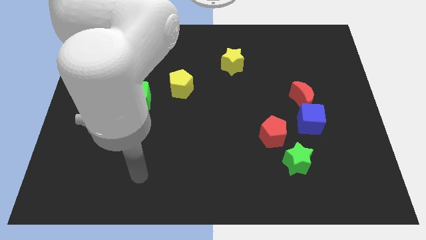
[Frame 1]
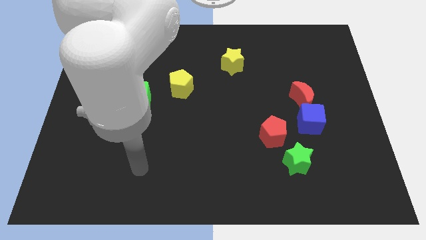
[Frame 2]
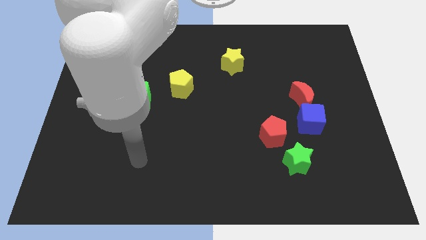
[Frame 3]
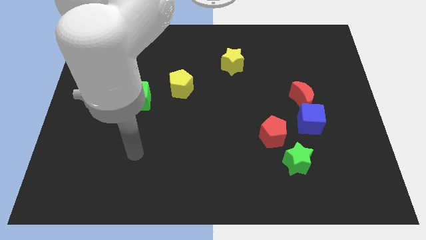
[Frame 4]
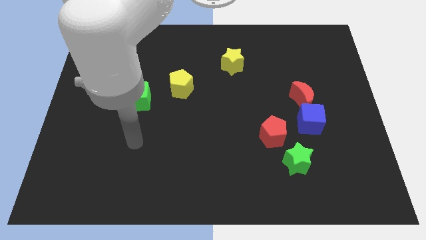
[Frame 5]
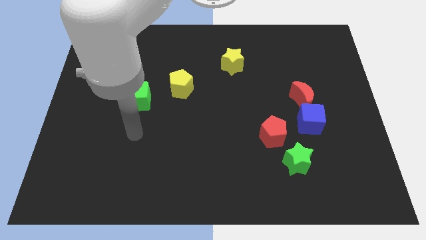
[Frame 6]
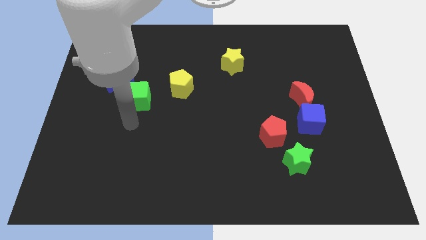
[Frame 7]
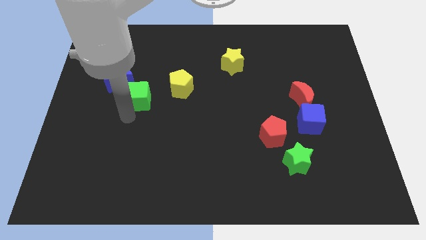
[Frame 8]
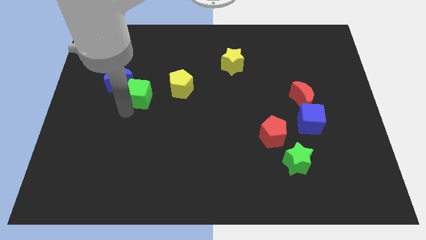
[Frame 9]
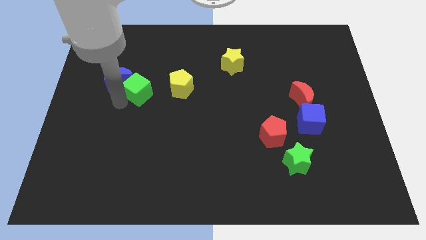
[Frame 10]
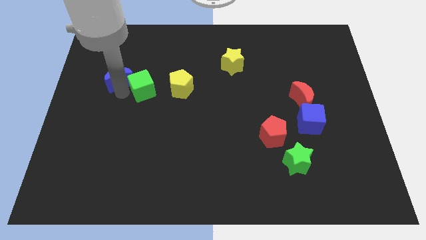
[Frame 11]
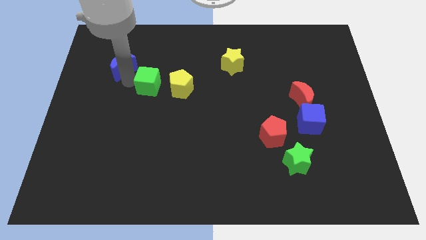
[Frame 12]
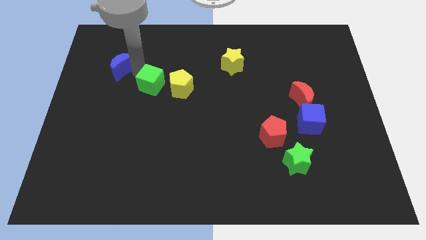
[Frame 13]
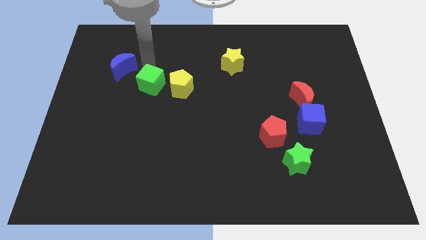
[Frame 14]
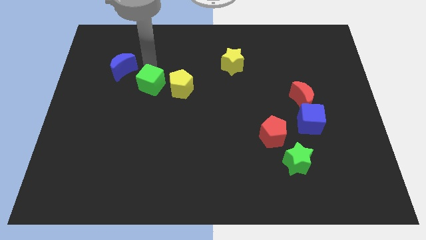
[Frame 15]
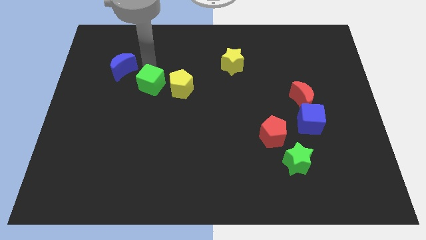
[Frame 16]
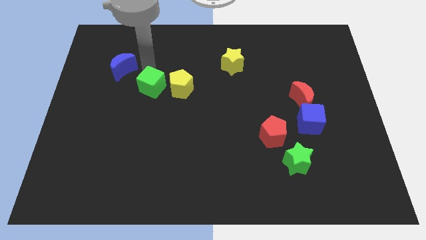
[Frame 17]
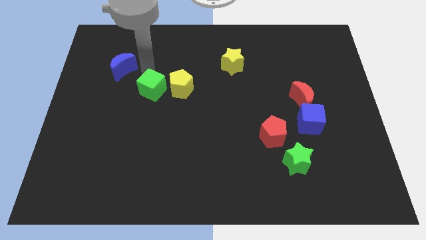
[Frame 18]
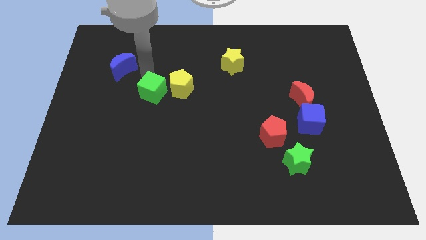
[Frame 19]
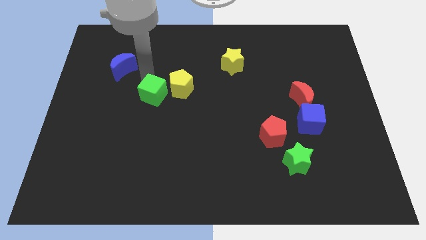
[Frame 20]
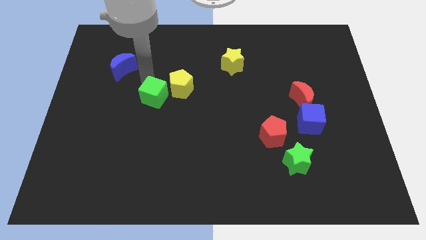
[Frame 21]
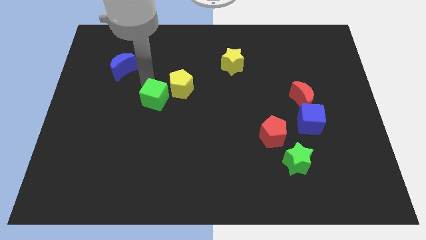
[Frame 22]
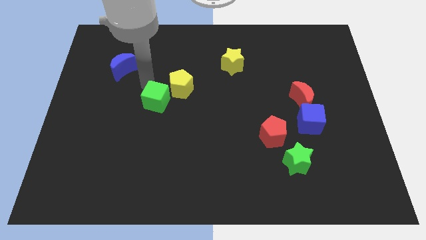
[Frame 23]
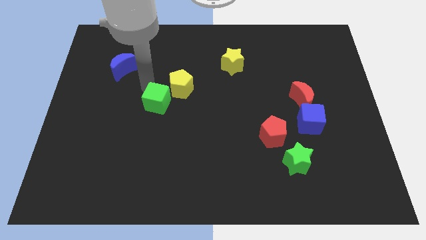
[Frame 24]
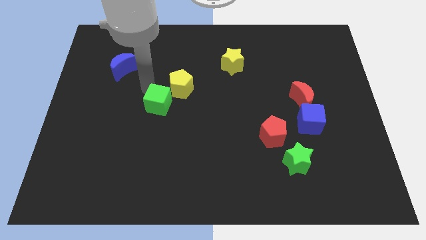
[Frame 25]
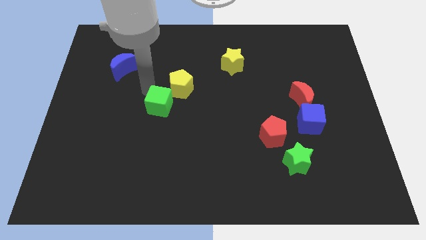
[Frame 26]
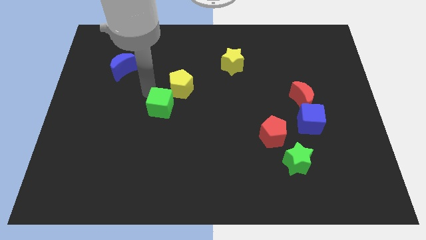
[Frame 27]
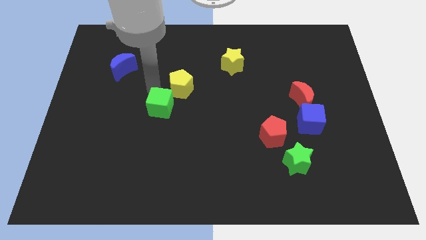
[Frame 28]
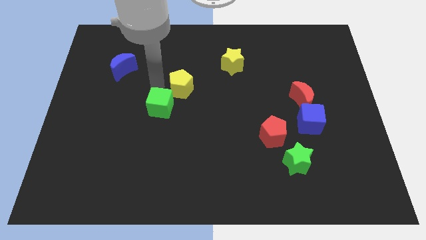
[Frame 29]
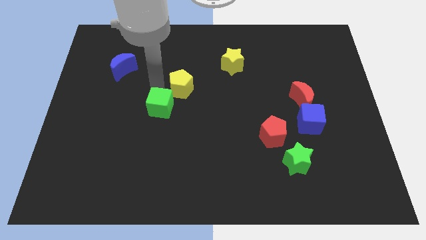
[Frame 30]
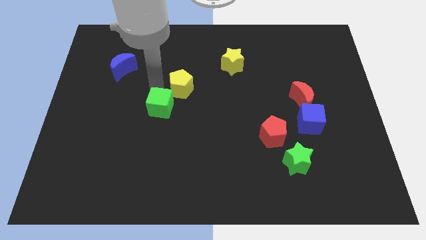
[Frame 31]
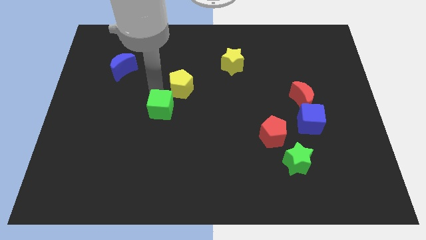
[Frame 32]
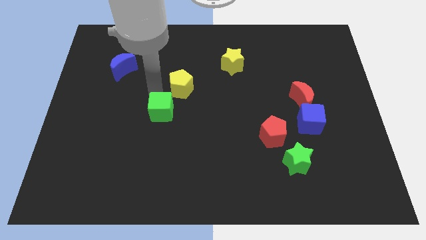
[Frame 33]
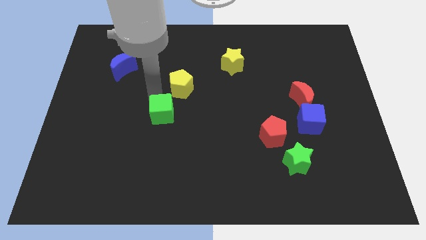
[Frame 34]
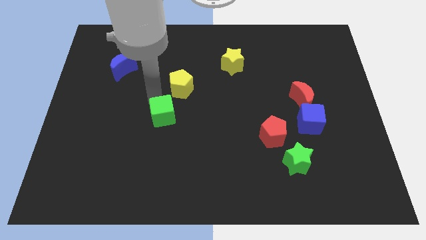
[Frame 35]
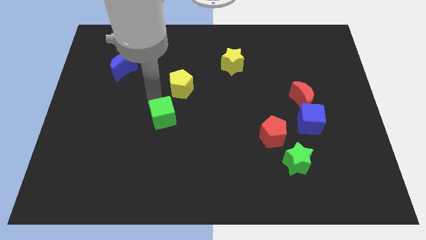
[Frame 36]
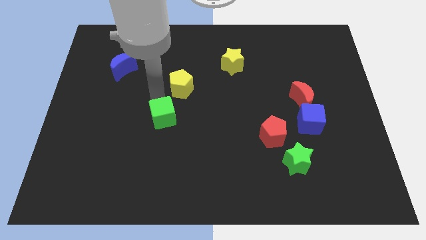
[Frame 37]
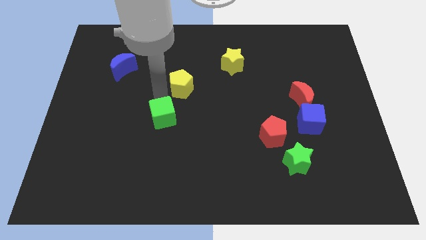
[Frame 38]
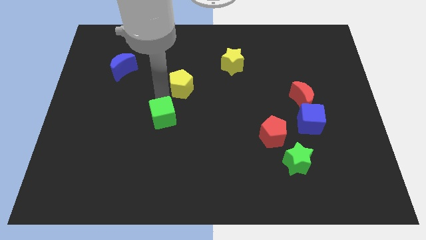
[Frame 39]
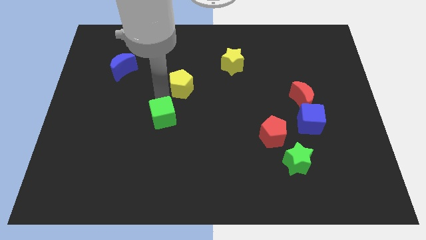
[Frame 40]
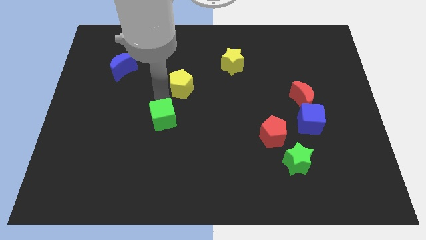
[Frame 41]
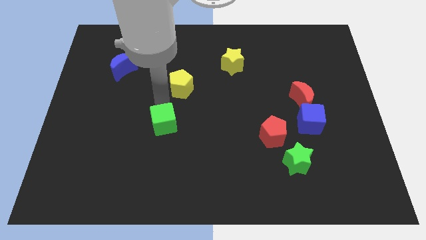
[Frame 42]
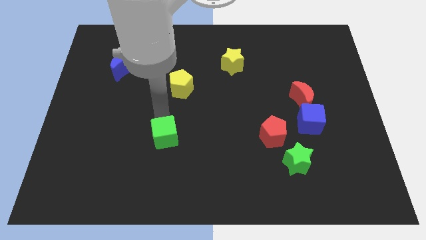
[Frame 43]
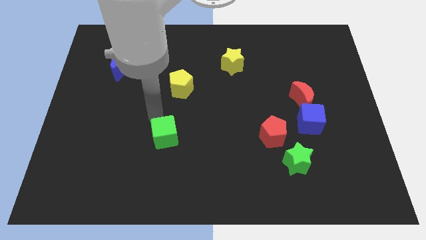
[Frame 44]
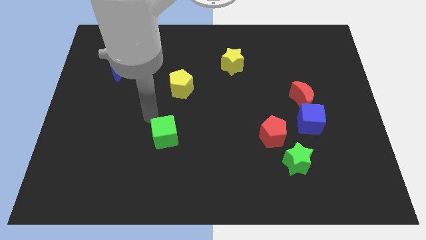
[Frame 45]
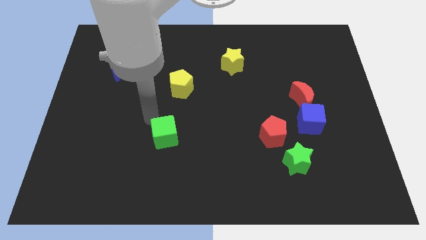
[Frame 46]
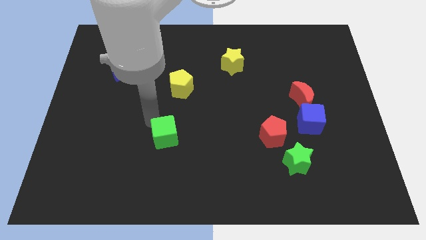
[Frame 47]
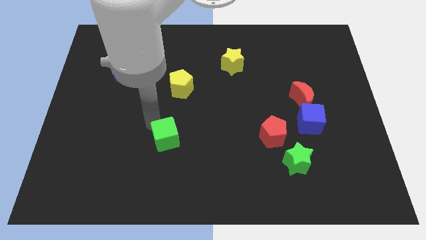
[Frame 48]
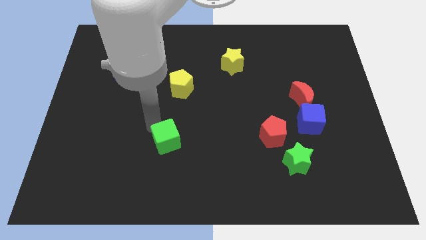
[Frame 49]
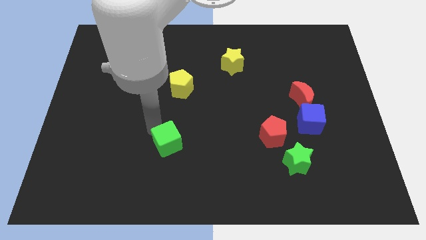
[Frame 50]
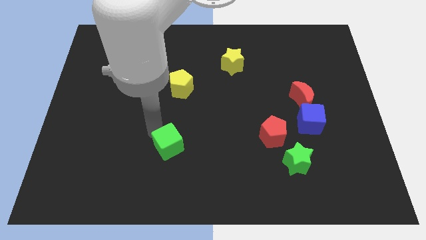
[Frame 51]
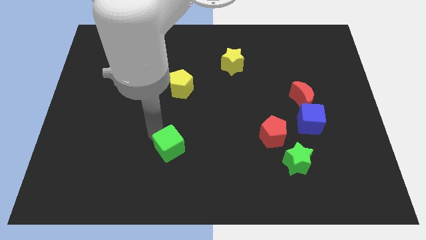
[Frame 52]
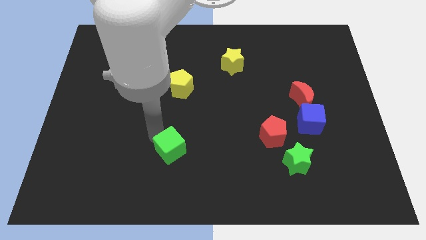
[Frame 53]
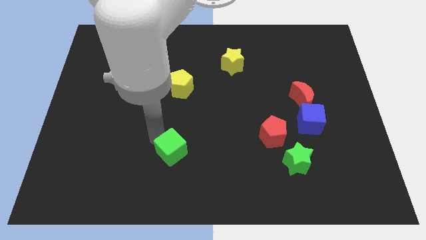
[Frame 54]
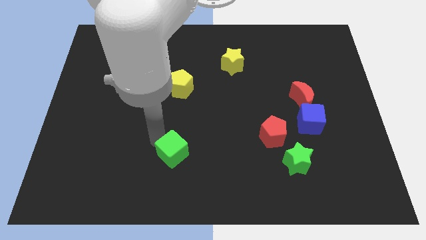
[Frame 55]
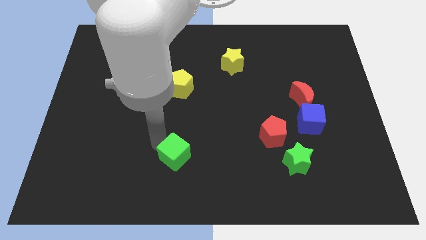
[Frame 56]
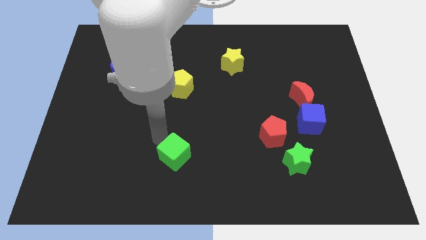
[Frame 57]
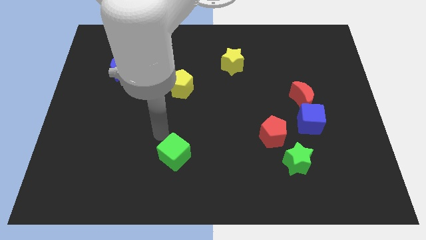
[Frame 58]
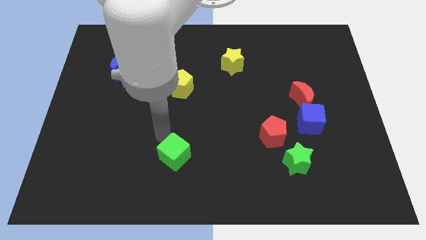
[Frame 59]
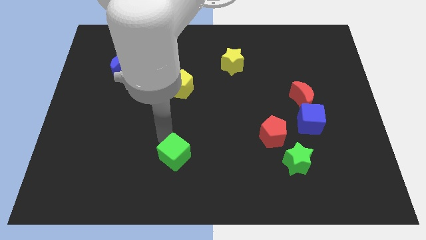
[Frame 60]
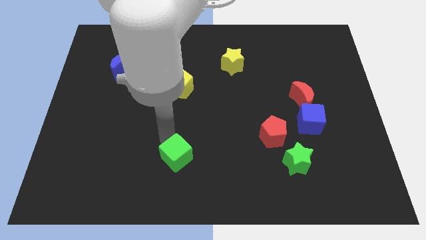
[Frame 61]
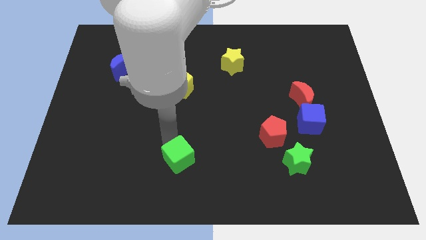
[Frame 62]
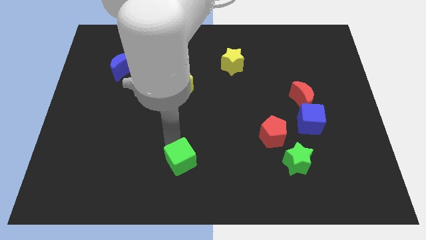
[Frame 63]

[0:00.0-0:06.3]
push the green cube to the bottom
